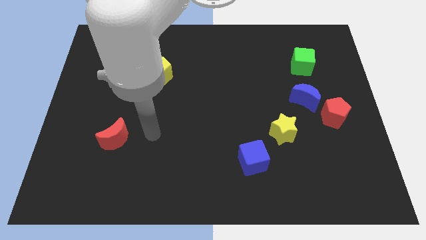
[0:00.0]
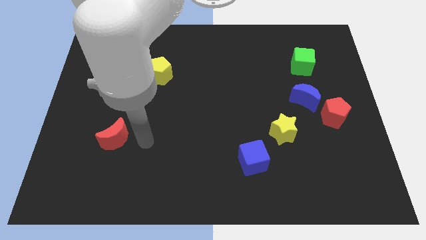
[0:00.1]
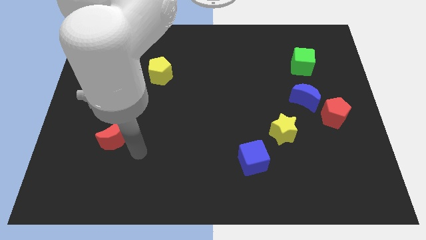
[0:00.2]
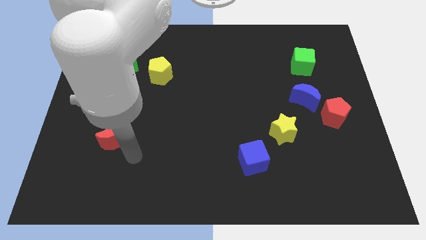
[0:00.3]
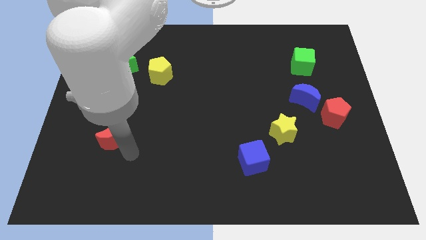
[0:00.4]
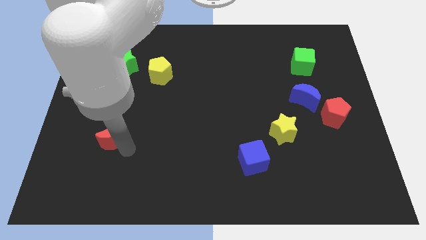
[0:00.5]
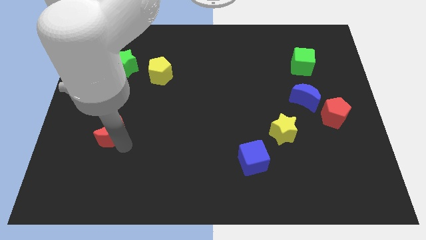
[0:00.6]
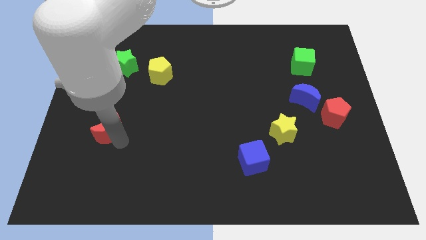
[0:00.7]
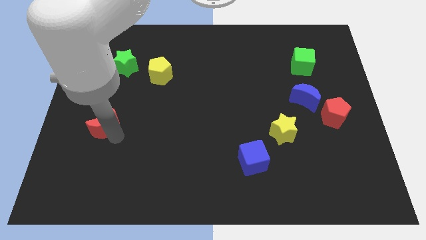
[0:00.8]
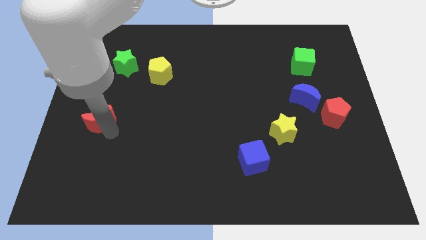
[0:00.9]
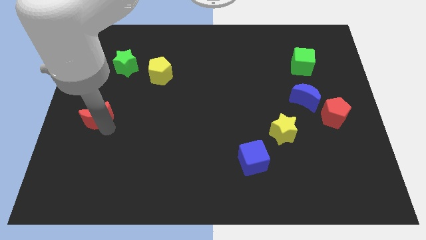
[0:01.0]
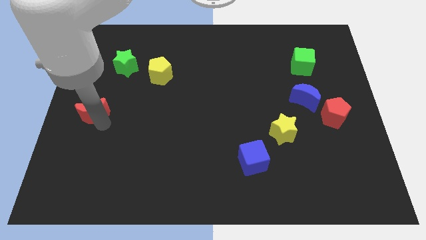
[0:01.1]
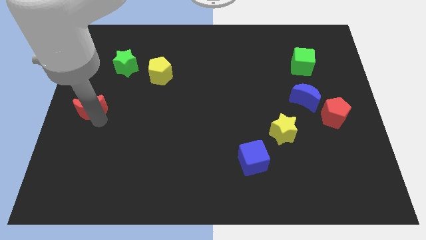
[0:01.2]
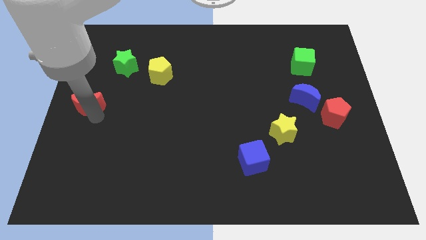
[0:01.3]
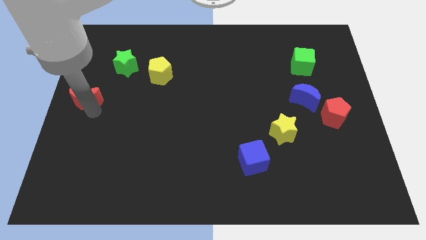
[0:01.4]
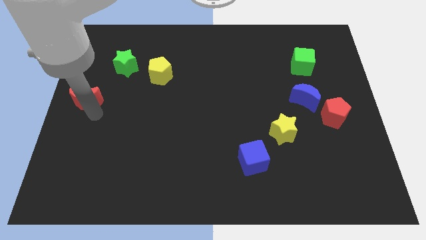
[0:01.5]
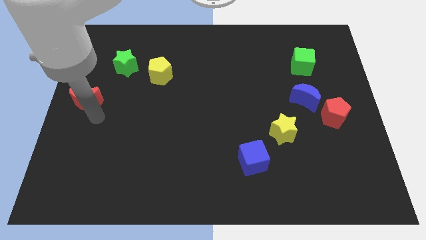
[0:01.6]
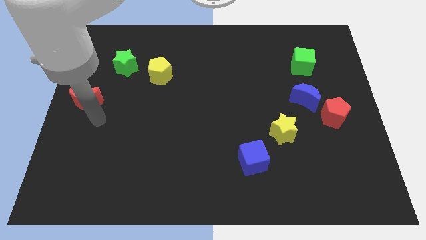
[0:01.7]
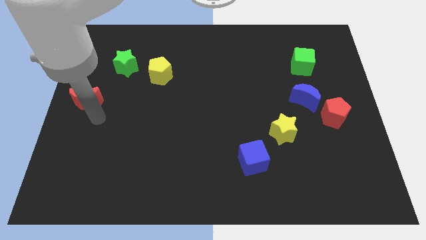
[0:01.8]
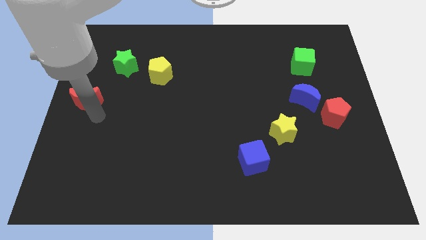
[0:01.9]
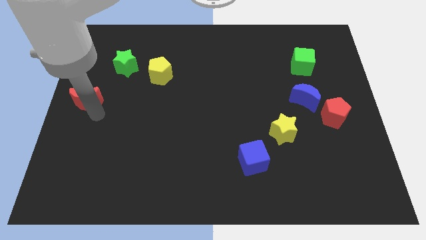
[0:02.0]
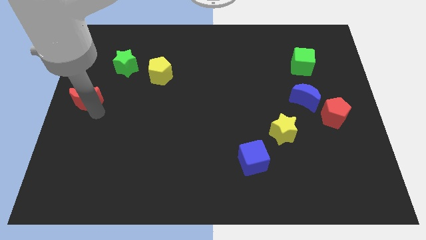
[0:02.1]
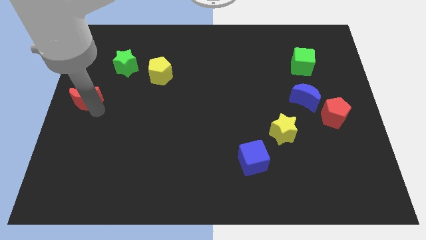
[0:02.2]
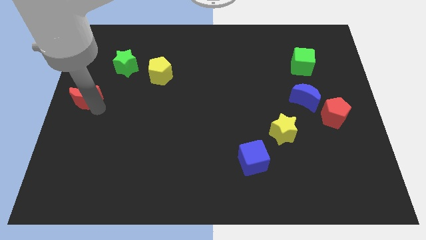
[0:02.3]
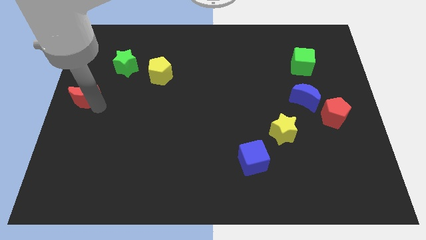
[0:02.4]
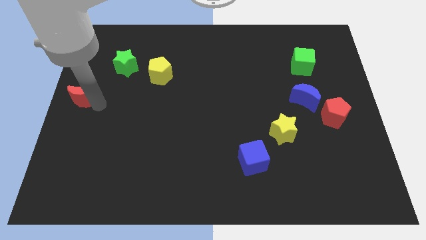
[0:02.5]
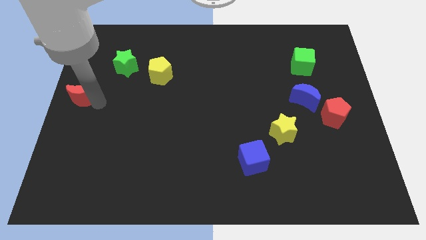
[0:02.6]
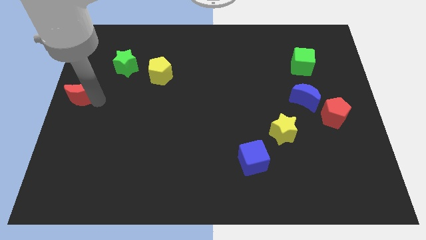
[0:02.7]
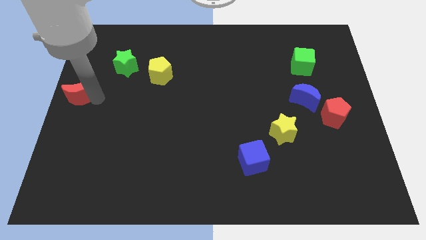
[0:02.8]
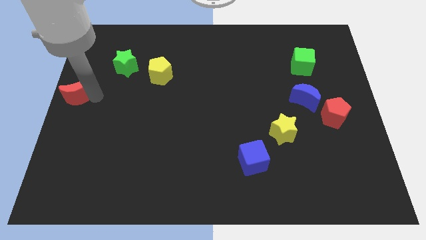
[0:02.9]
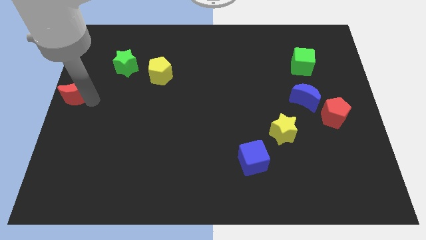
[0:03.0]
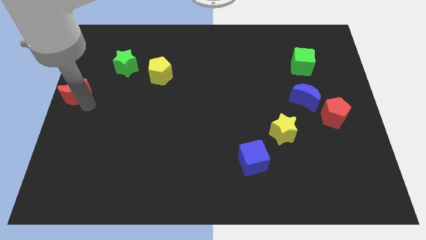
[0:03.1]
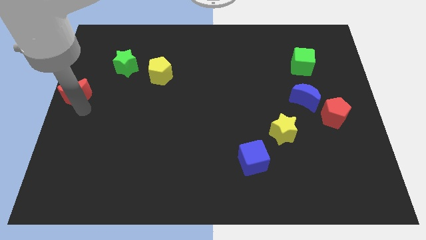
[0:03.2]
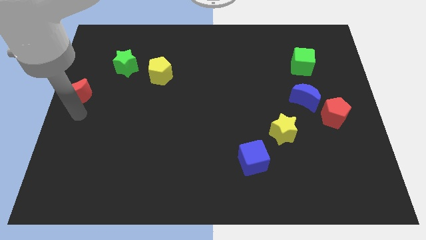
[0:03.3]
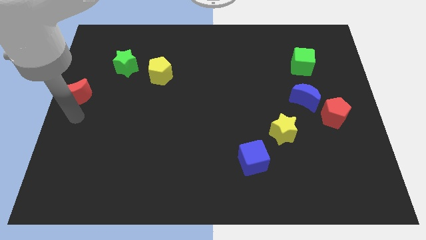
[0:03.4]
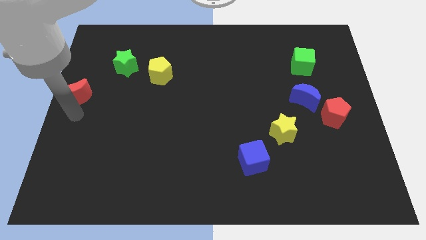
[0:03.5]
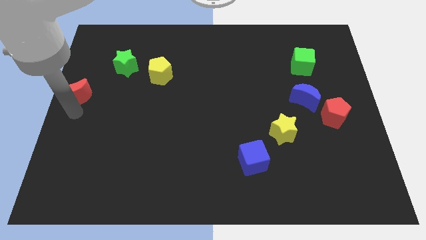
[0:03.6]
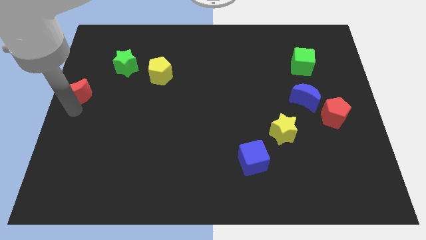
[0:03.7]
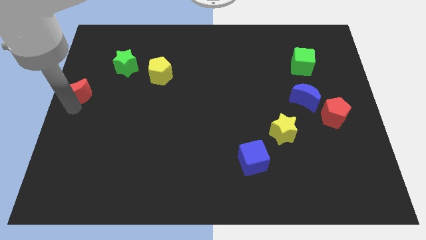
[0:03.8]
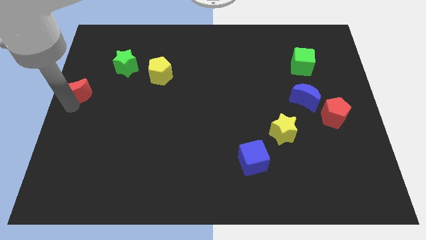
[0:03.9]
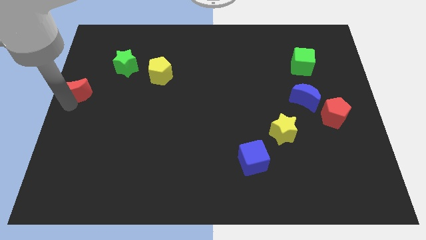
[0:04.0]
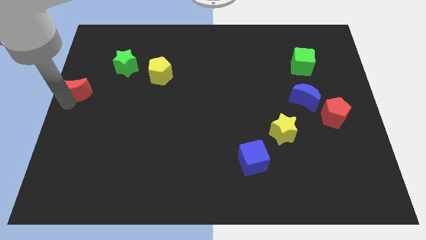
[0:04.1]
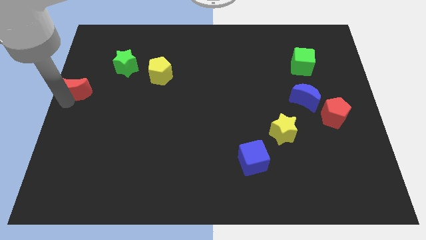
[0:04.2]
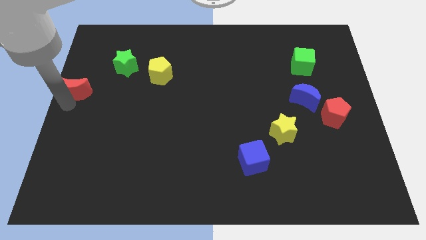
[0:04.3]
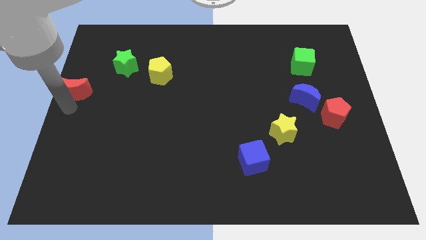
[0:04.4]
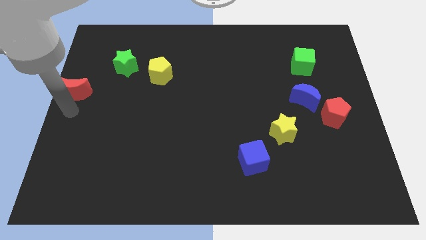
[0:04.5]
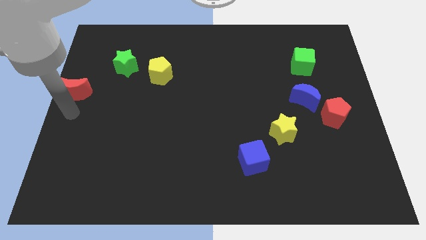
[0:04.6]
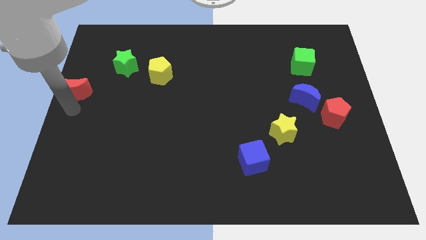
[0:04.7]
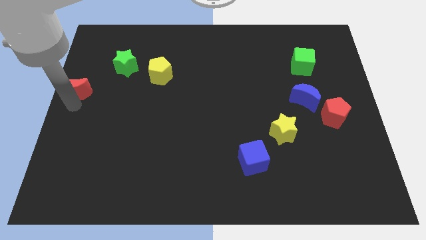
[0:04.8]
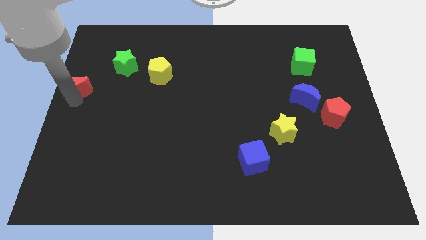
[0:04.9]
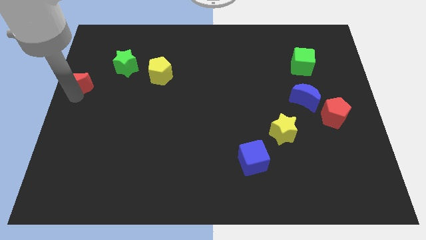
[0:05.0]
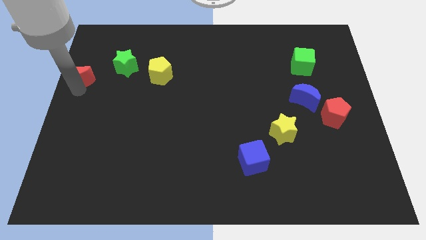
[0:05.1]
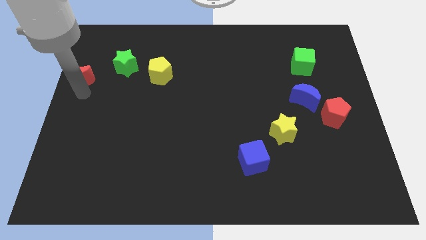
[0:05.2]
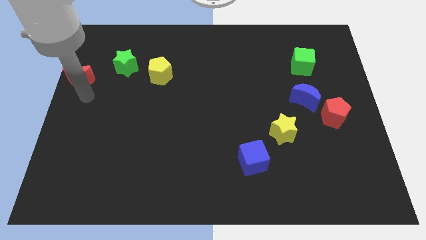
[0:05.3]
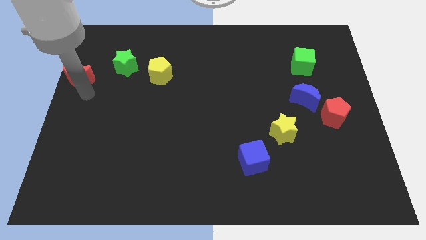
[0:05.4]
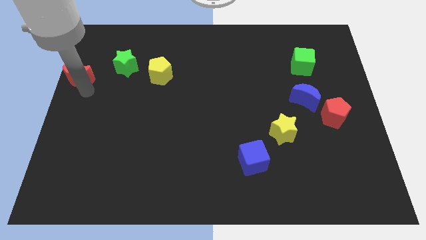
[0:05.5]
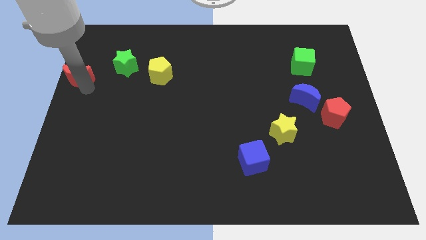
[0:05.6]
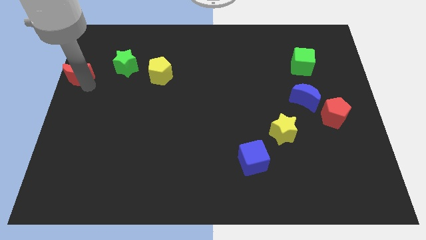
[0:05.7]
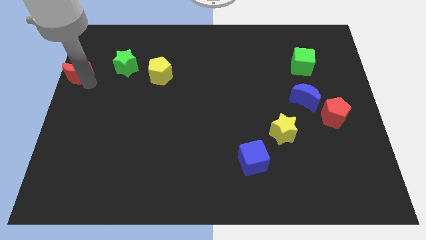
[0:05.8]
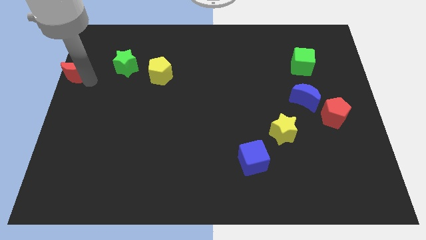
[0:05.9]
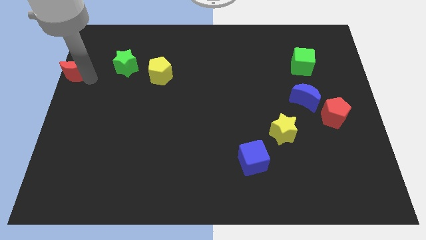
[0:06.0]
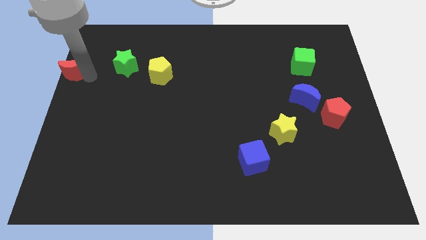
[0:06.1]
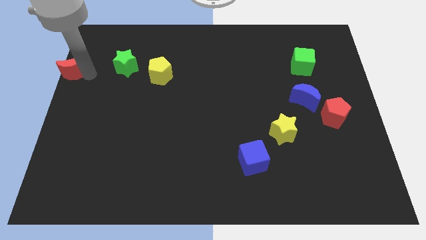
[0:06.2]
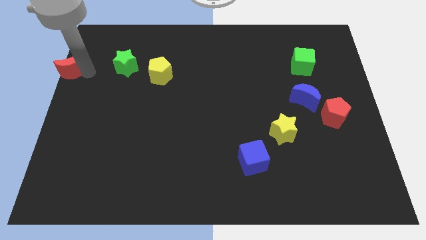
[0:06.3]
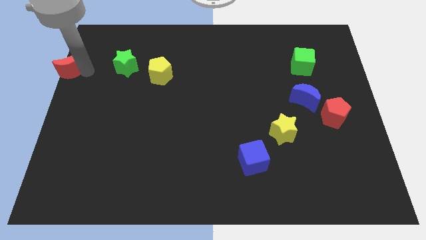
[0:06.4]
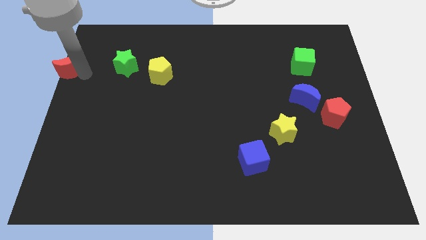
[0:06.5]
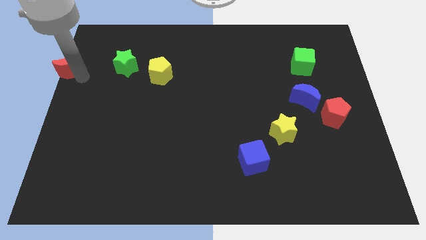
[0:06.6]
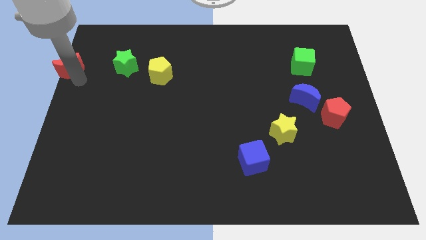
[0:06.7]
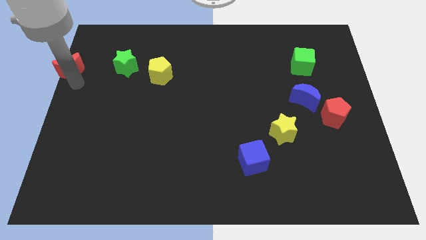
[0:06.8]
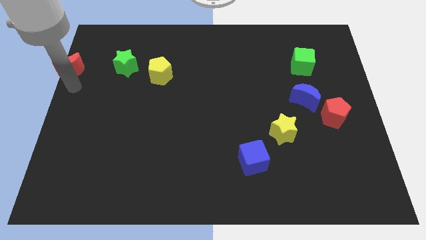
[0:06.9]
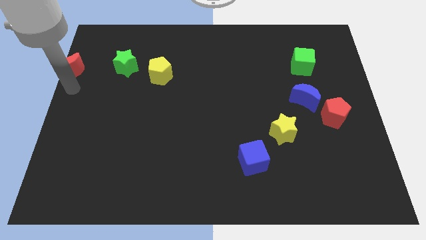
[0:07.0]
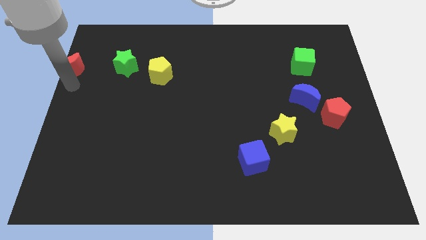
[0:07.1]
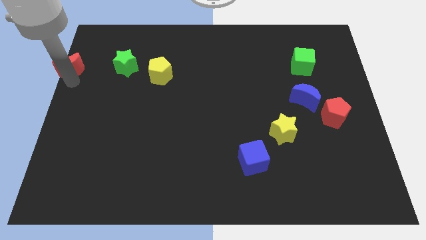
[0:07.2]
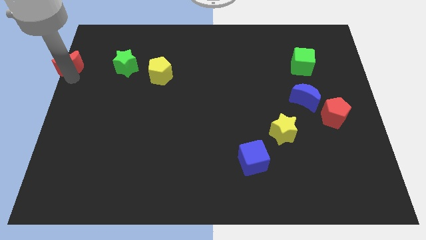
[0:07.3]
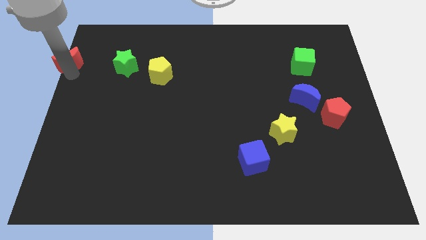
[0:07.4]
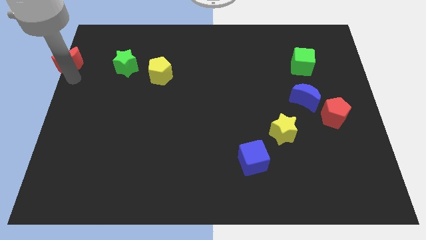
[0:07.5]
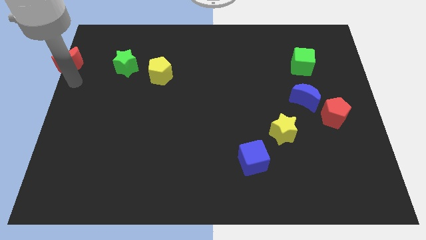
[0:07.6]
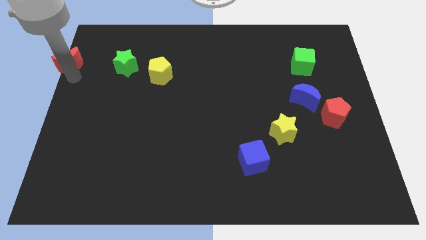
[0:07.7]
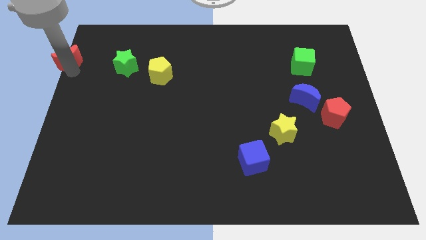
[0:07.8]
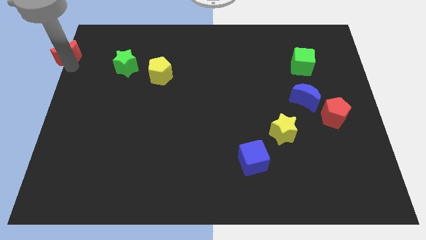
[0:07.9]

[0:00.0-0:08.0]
slide the red moon to the top left
